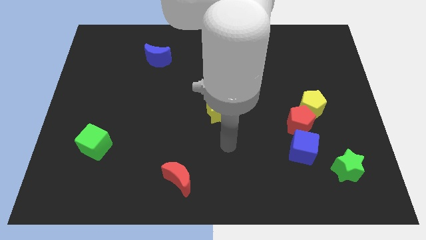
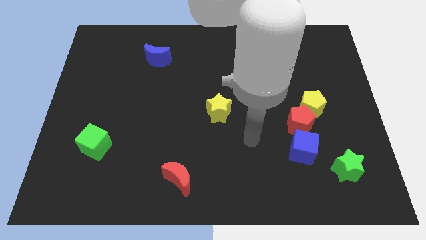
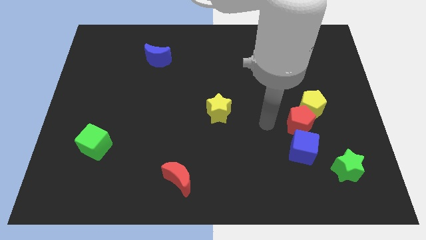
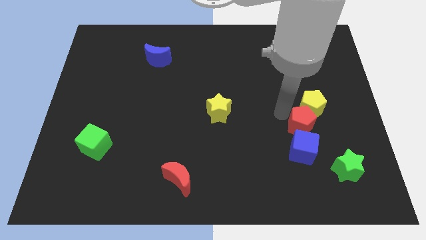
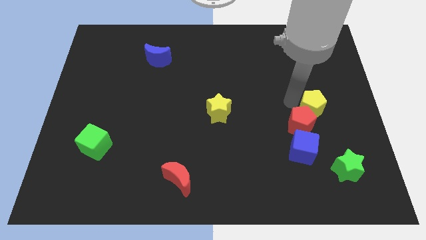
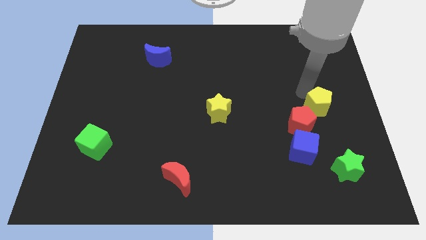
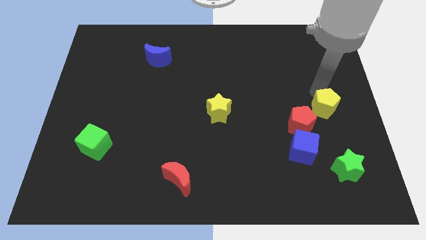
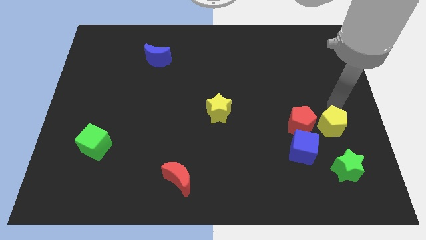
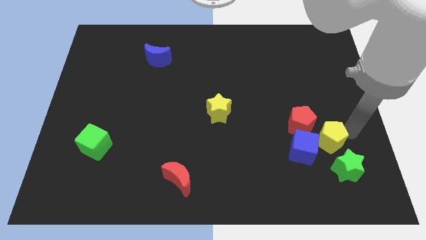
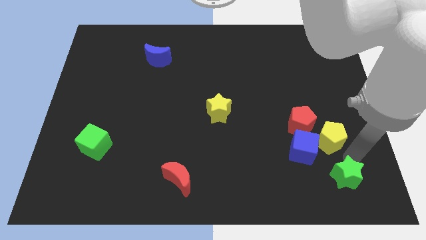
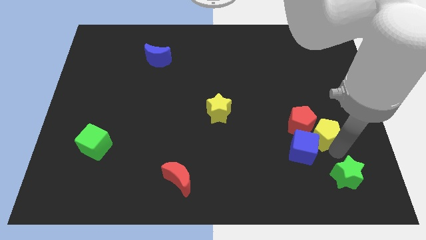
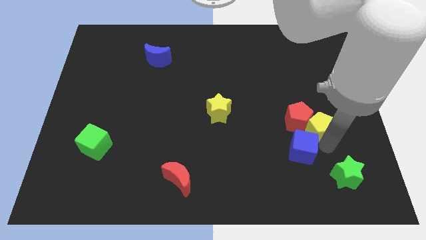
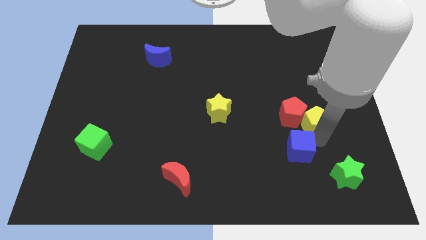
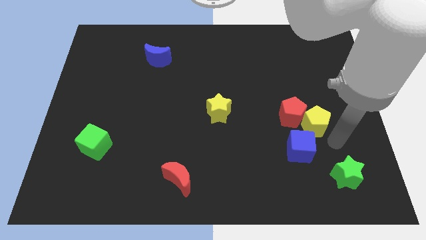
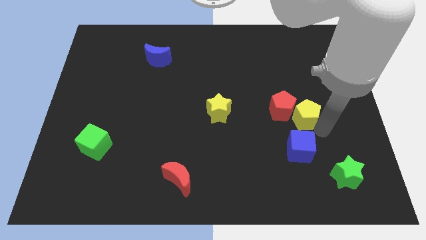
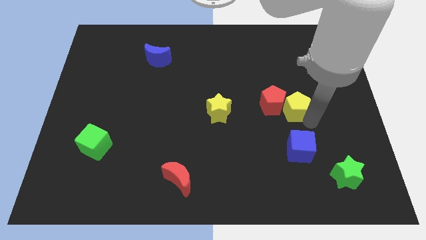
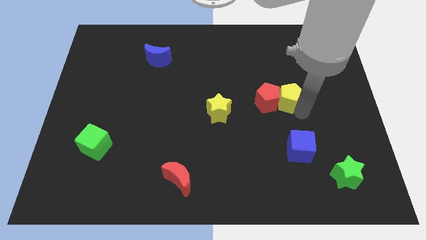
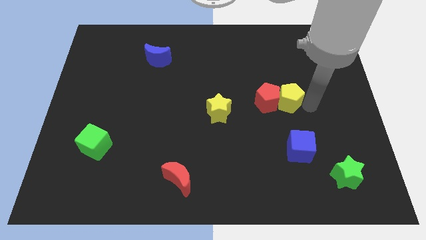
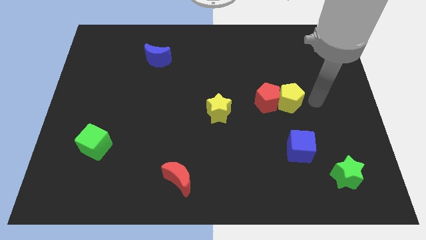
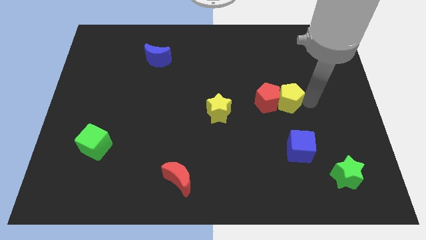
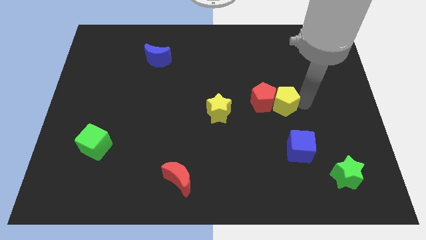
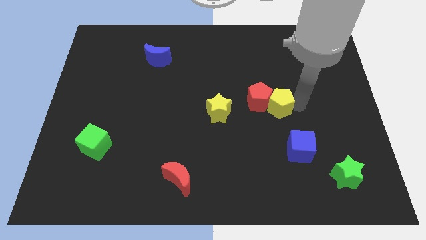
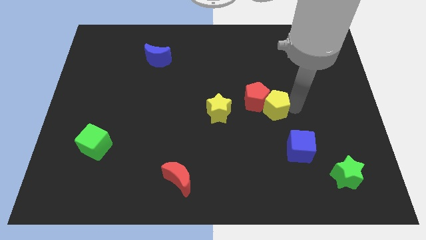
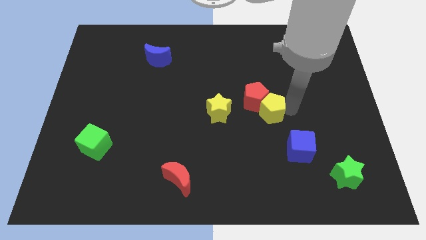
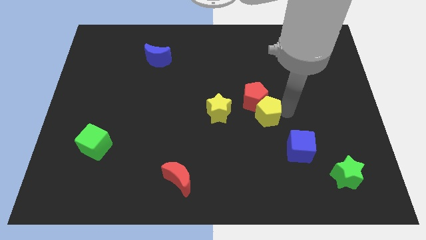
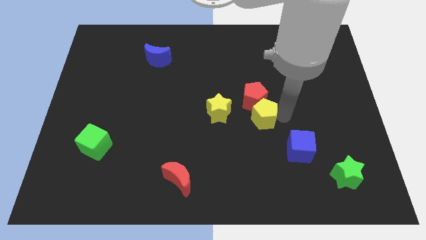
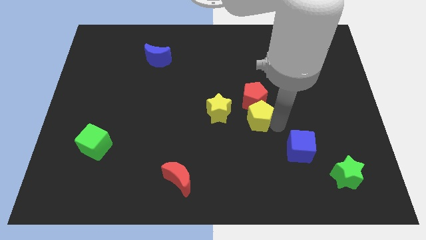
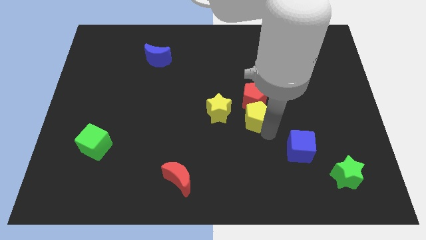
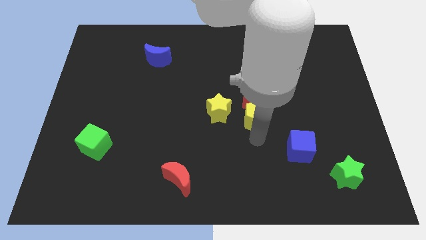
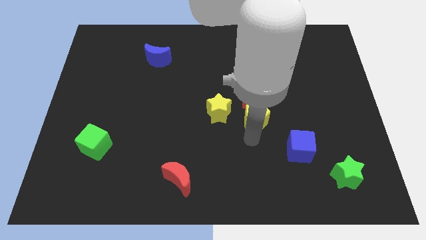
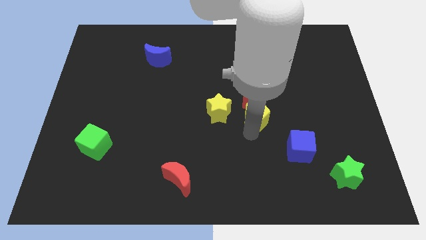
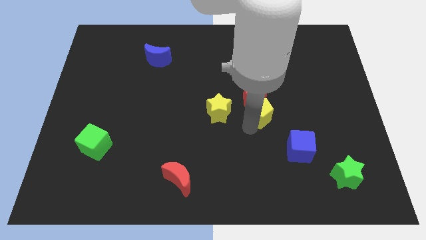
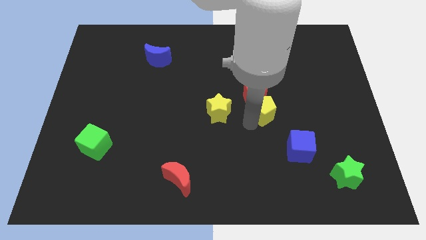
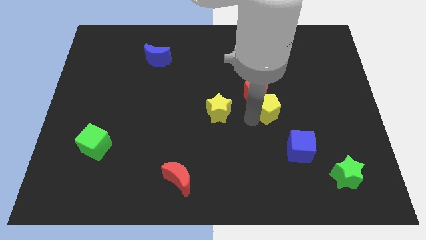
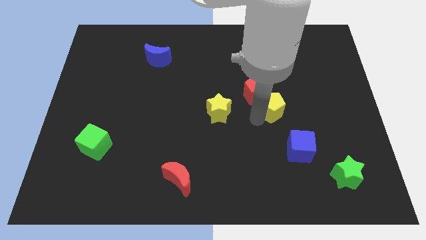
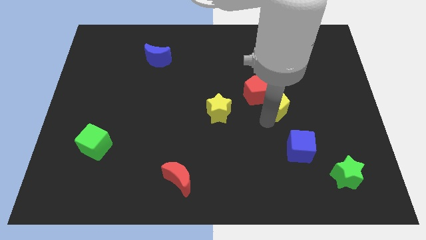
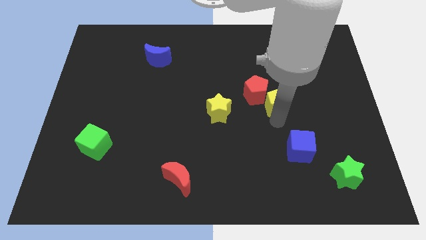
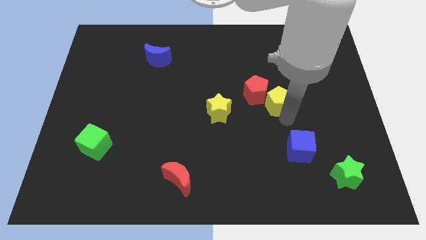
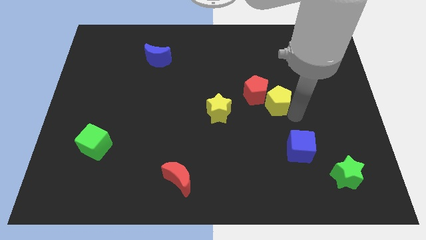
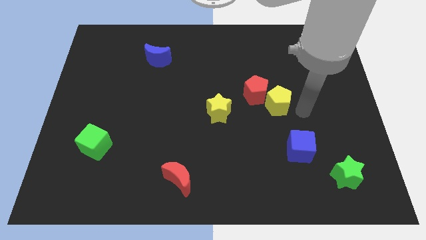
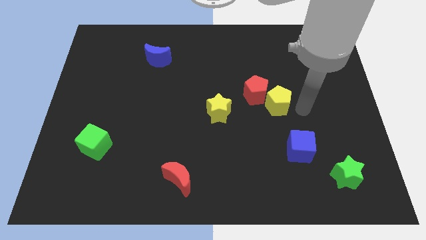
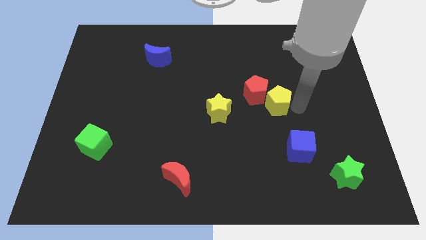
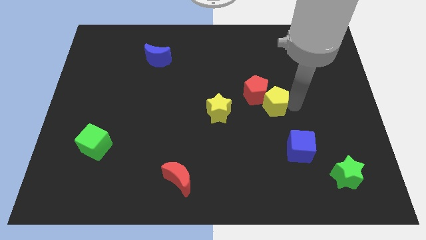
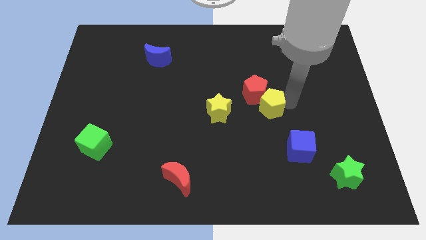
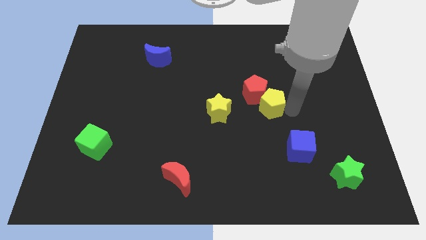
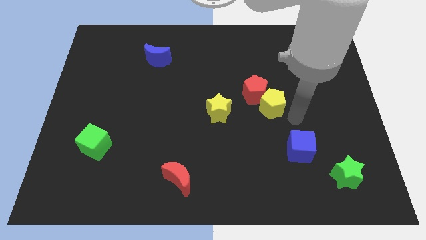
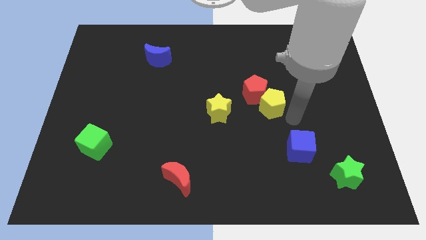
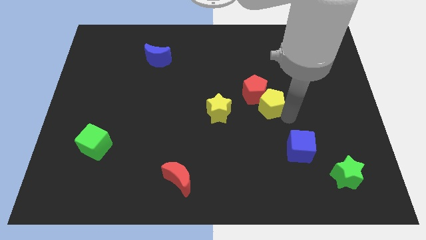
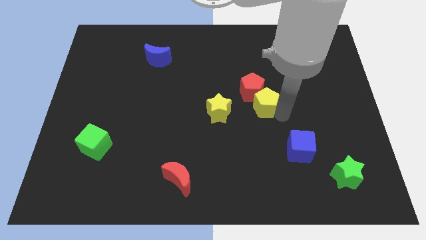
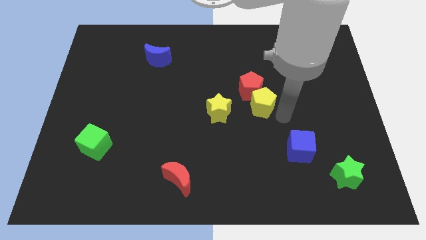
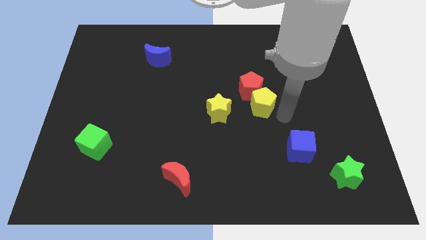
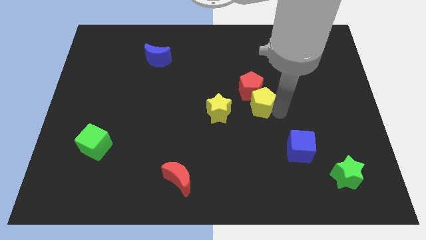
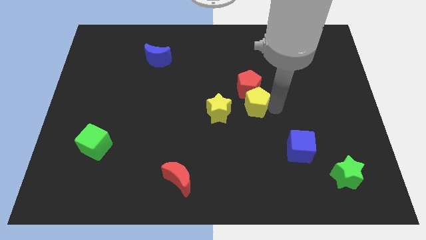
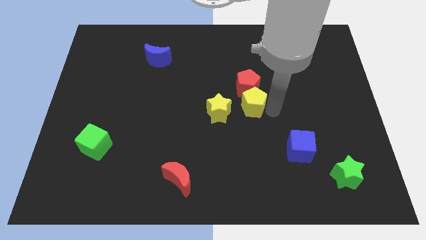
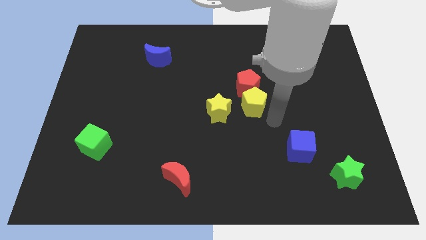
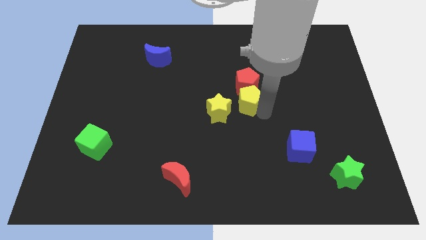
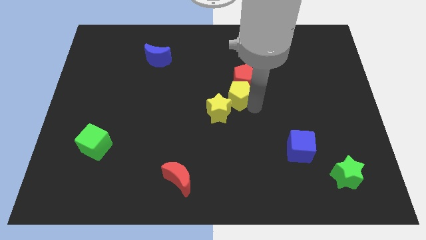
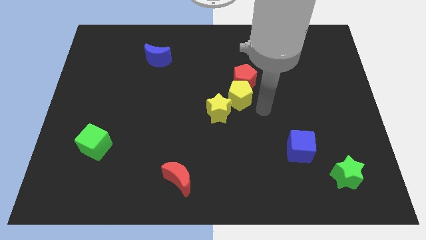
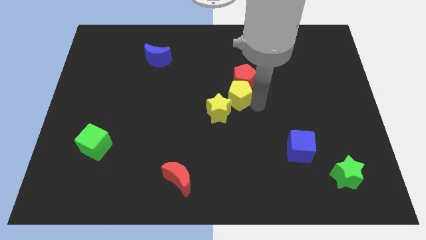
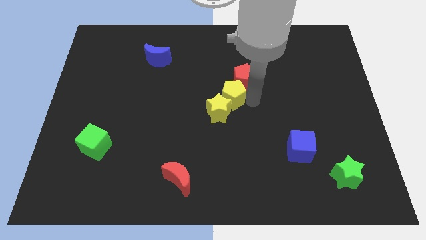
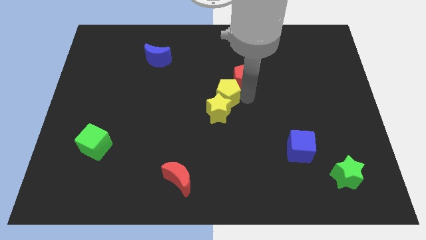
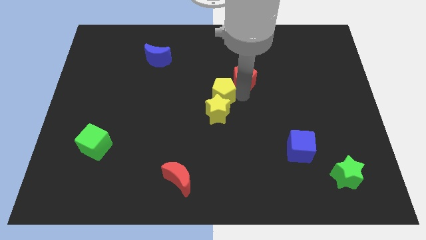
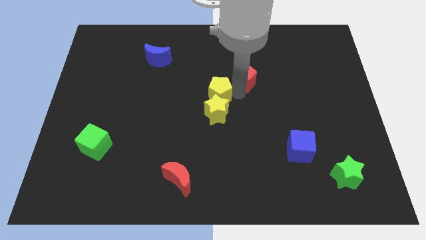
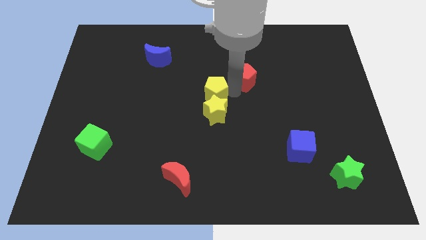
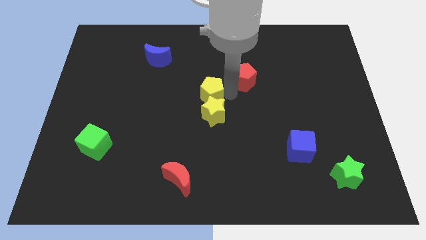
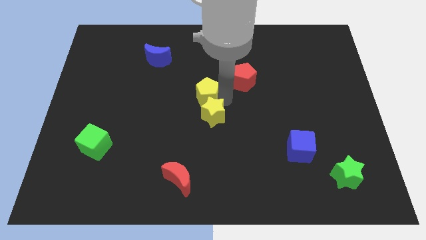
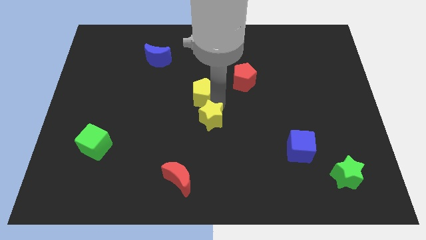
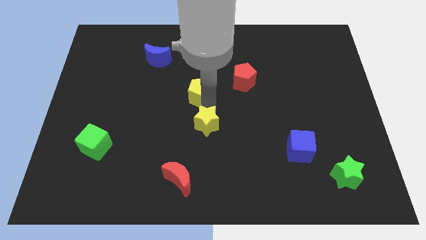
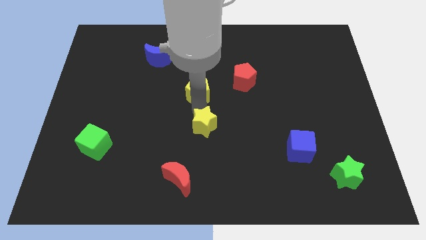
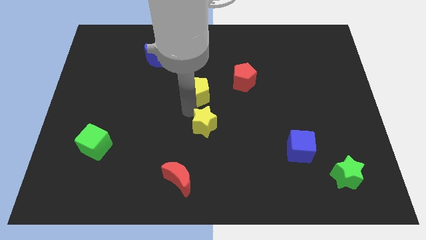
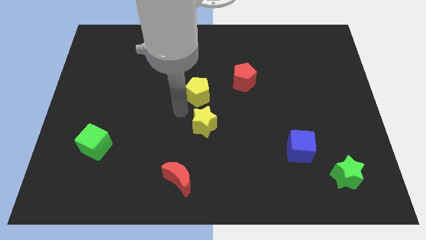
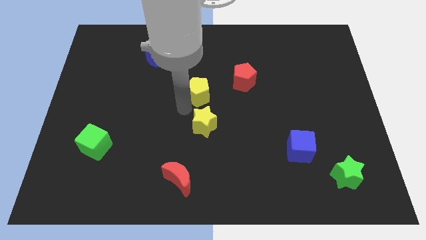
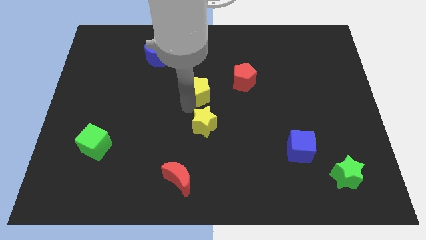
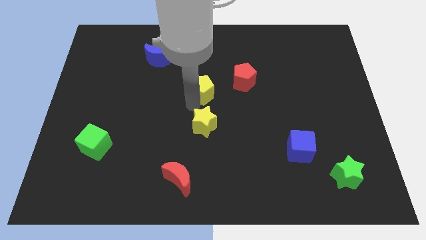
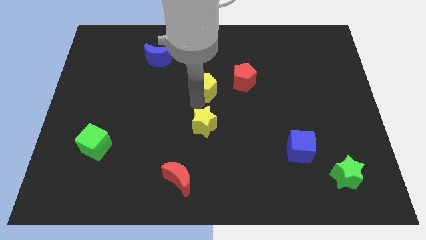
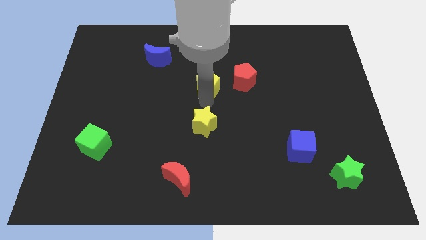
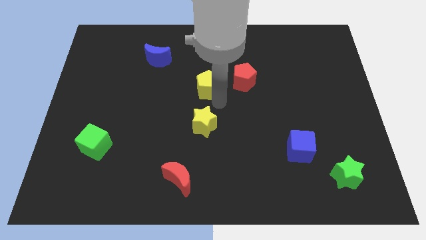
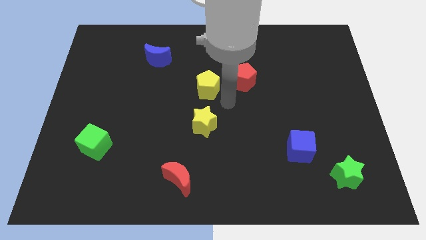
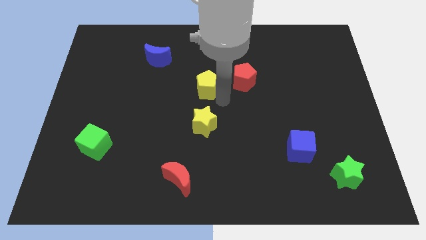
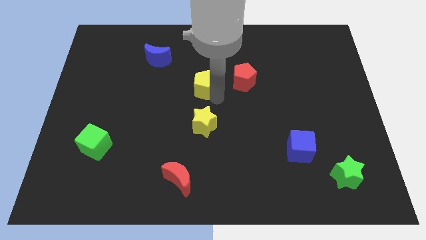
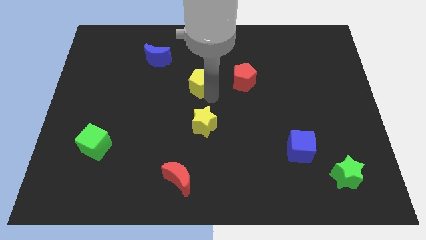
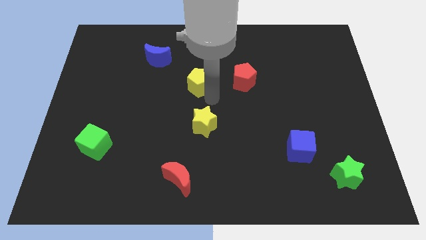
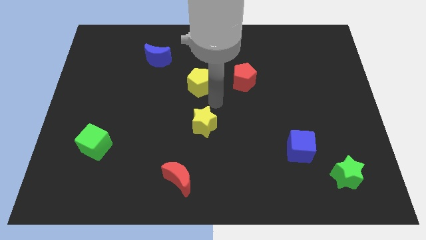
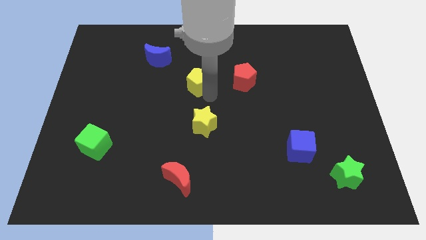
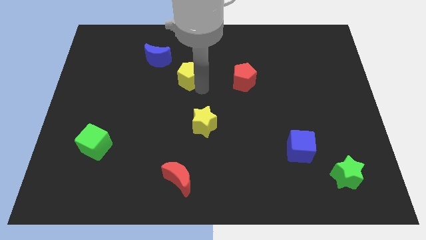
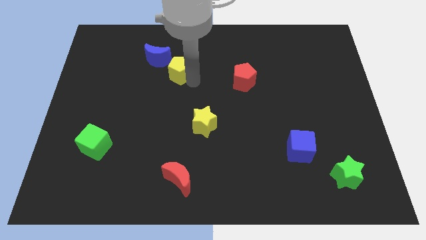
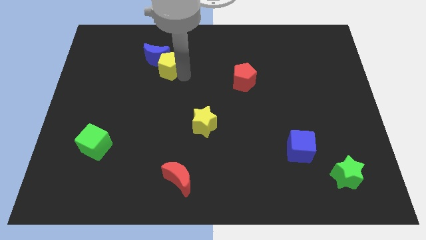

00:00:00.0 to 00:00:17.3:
put the yellow pentagon to the blue moon
